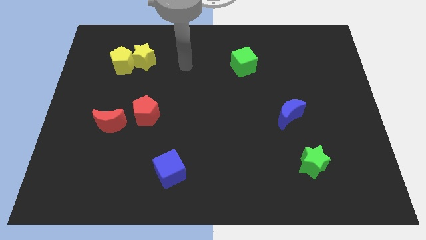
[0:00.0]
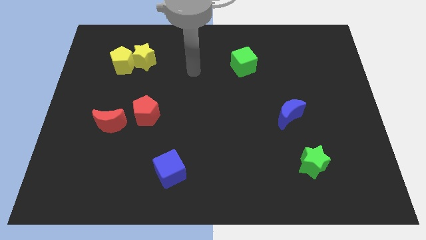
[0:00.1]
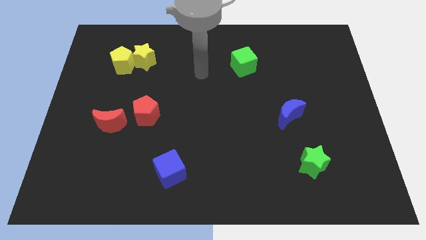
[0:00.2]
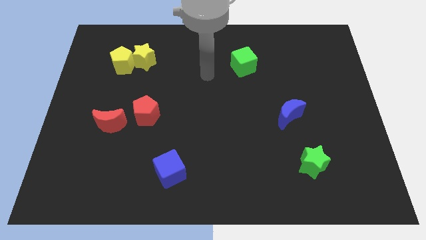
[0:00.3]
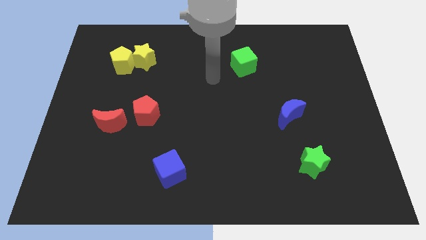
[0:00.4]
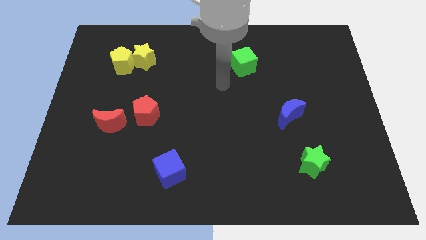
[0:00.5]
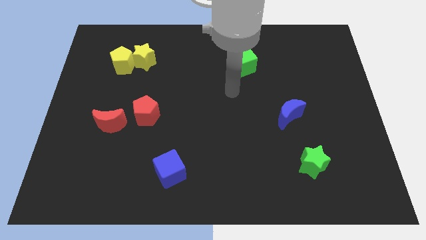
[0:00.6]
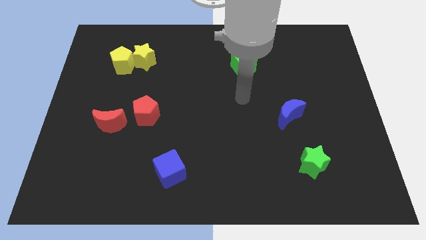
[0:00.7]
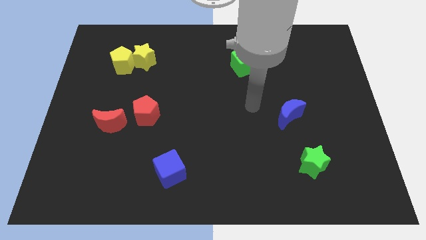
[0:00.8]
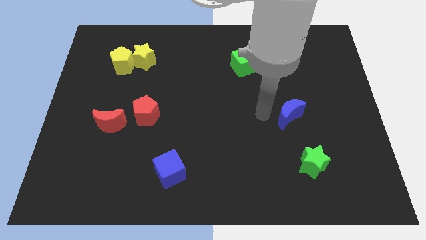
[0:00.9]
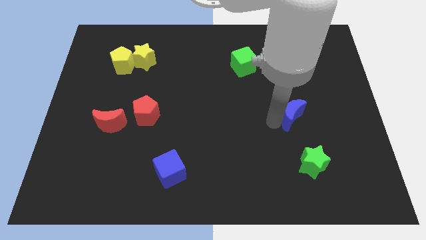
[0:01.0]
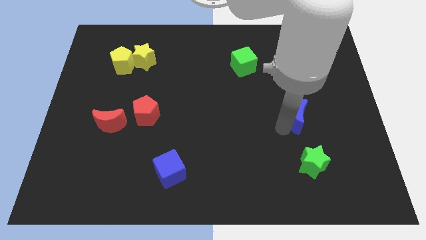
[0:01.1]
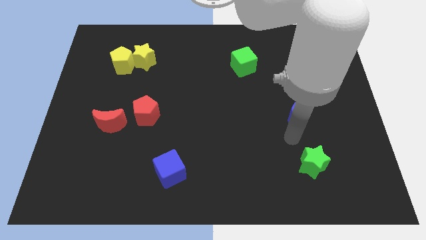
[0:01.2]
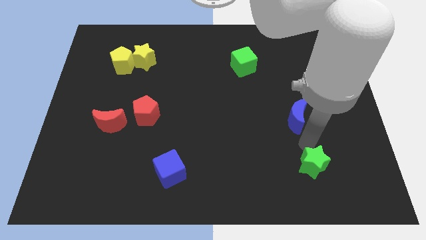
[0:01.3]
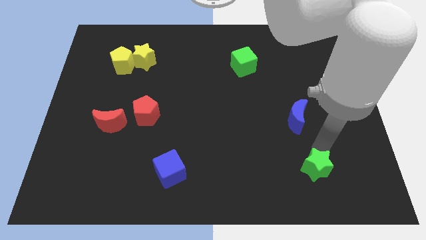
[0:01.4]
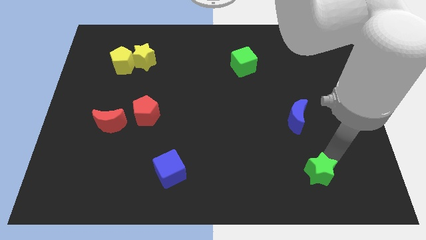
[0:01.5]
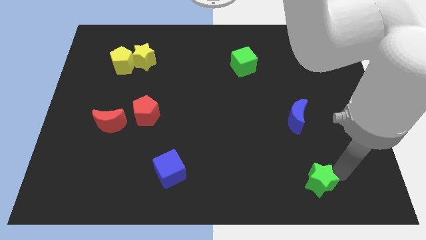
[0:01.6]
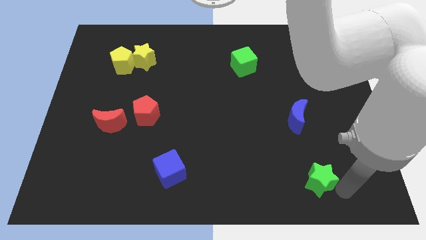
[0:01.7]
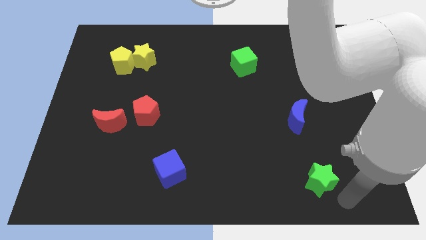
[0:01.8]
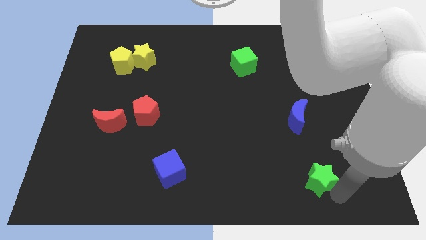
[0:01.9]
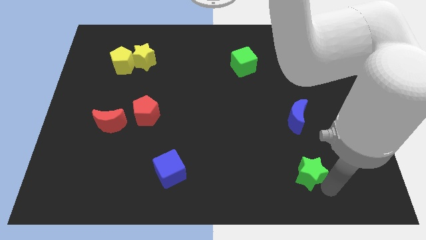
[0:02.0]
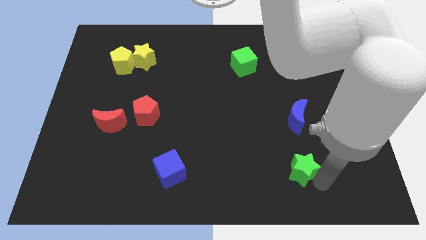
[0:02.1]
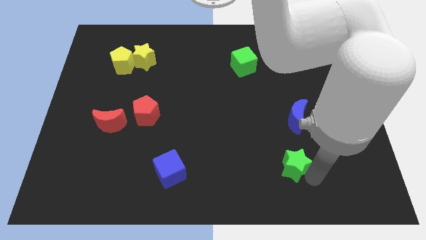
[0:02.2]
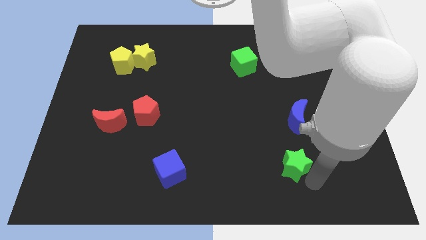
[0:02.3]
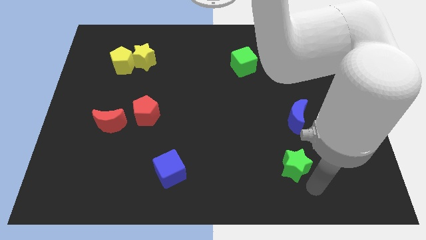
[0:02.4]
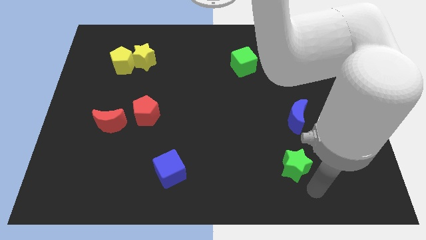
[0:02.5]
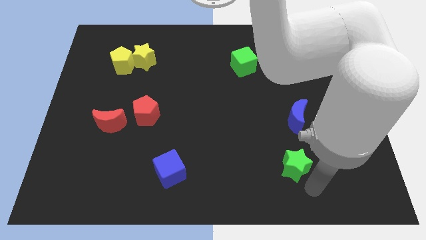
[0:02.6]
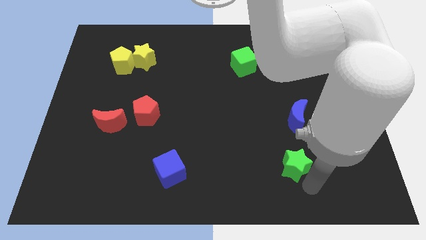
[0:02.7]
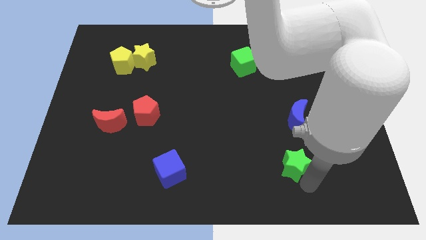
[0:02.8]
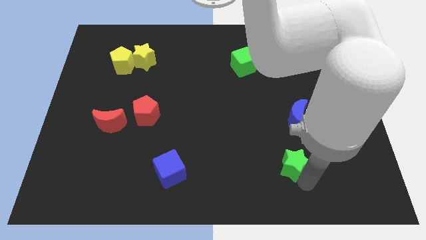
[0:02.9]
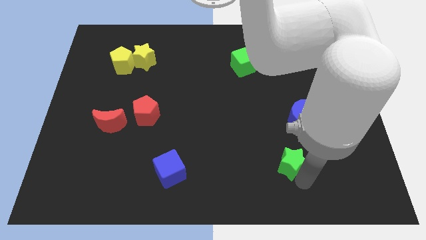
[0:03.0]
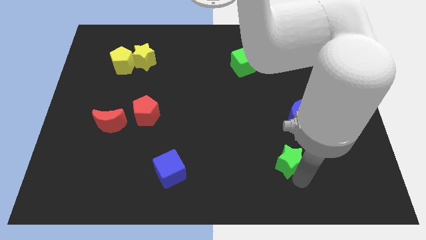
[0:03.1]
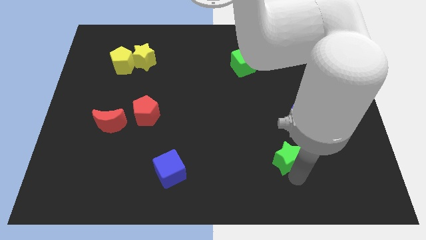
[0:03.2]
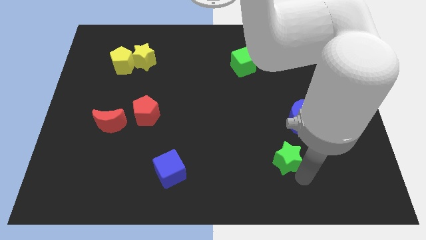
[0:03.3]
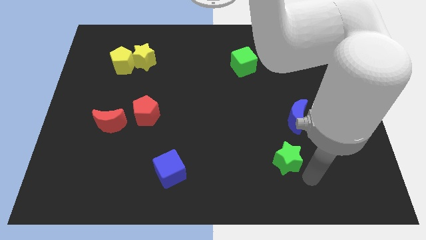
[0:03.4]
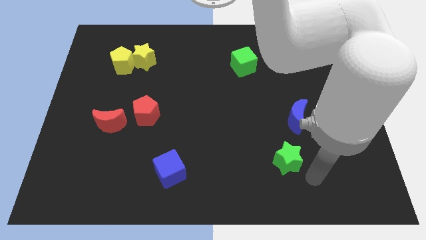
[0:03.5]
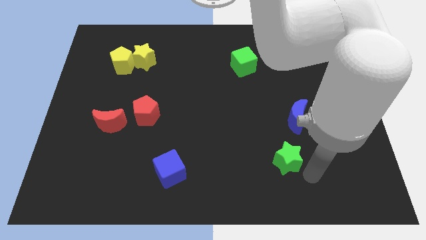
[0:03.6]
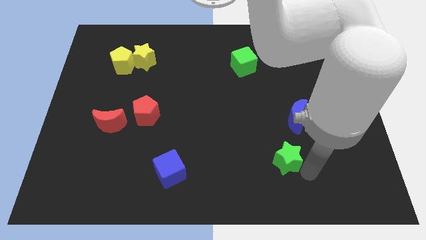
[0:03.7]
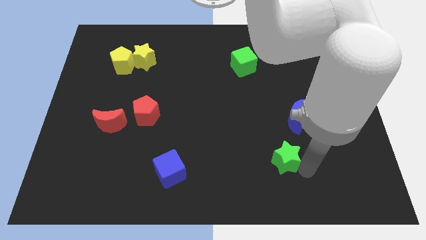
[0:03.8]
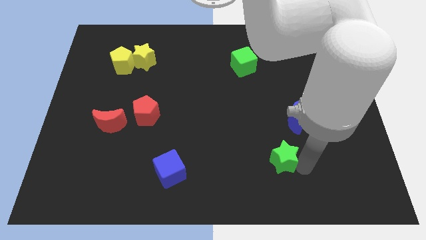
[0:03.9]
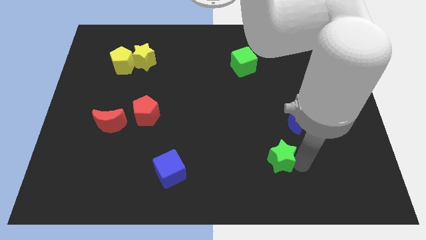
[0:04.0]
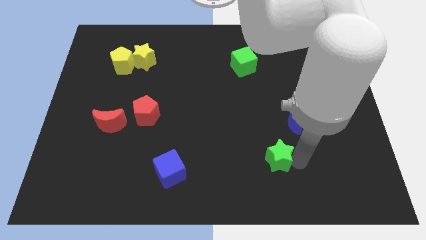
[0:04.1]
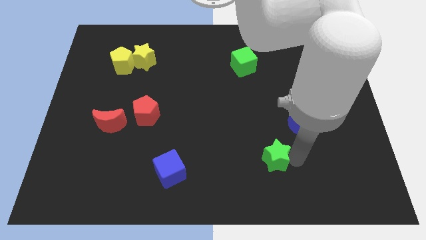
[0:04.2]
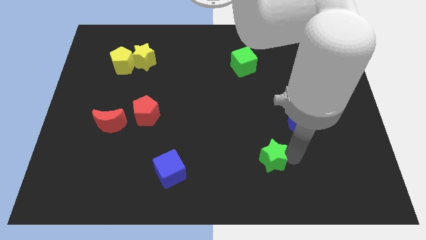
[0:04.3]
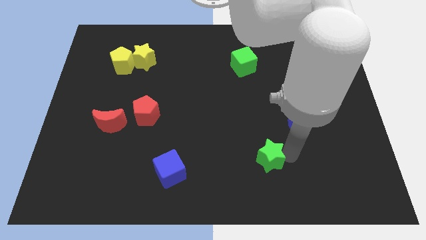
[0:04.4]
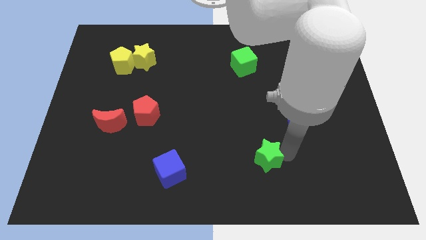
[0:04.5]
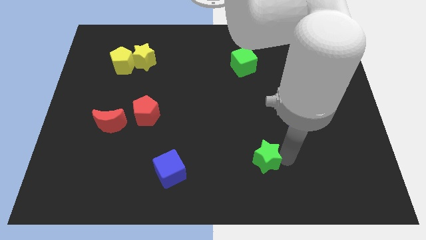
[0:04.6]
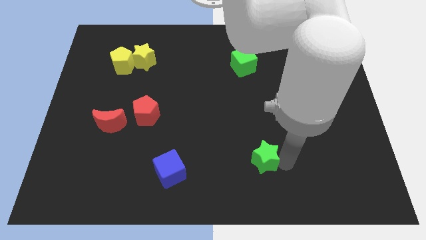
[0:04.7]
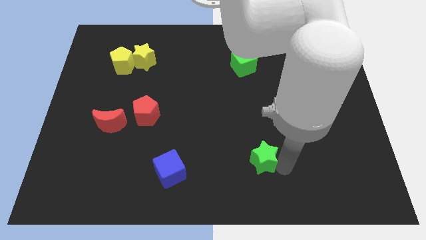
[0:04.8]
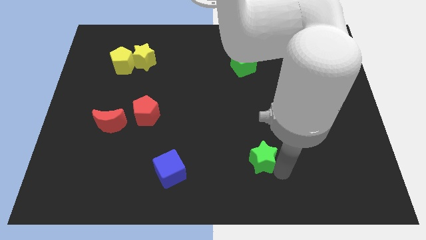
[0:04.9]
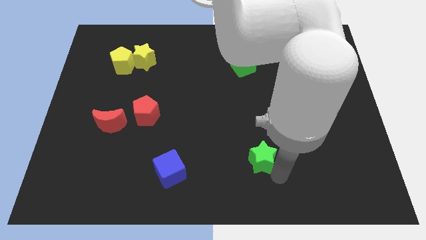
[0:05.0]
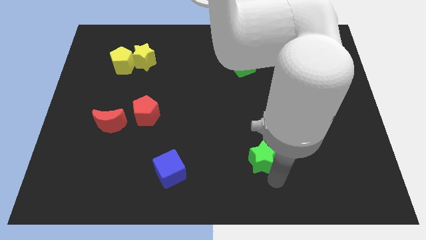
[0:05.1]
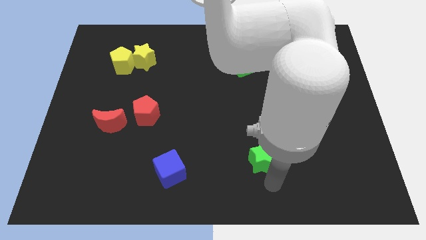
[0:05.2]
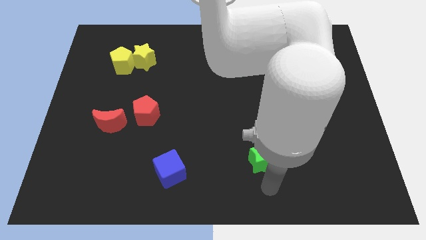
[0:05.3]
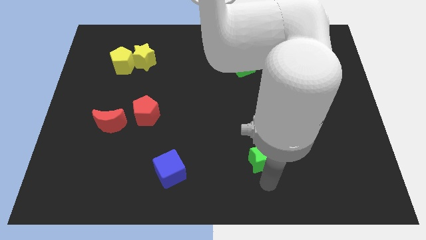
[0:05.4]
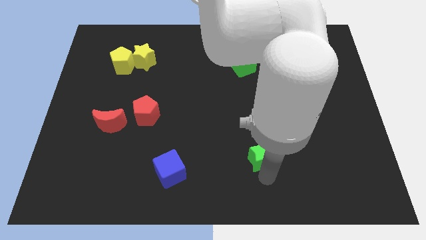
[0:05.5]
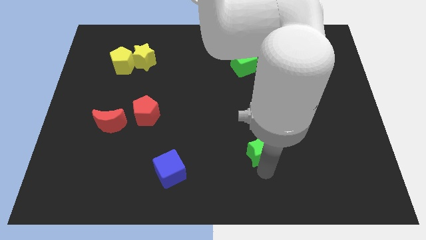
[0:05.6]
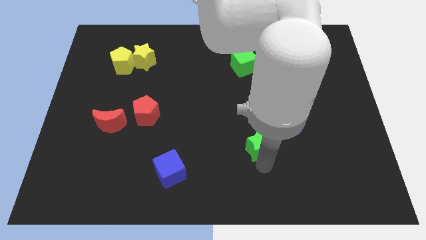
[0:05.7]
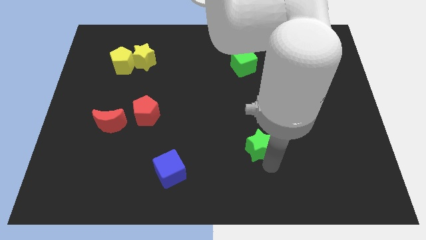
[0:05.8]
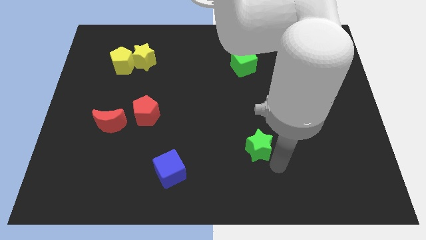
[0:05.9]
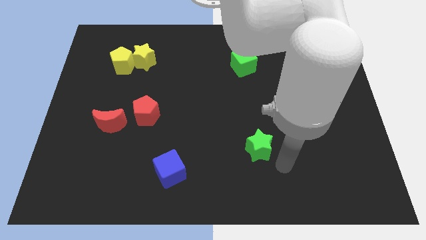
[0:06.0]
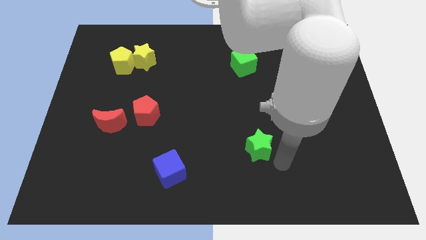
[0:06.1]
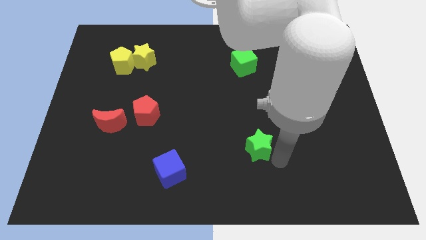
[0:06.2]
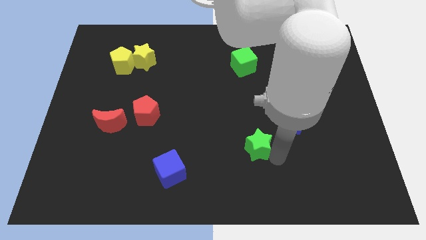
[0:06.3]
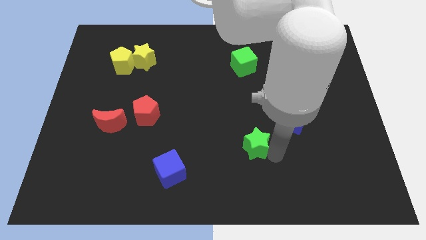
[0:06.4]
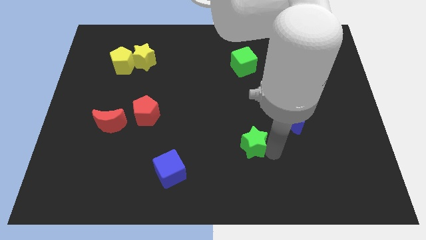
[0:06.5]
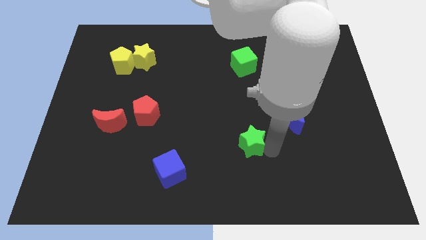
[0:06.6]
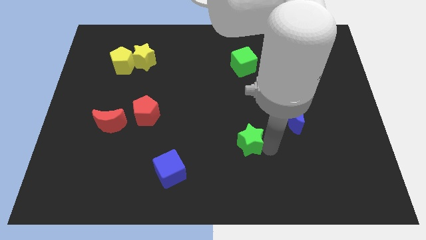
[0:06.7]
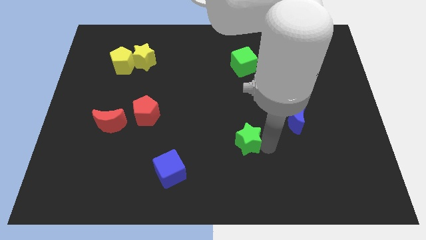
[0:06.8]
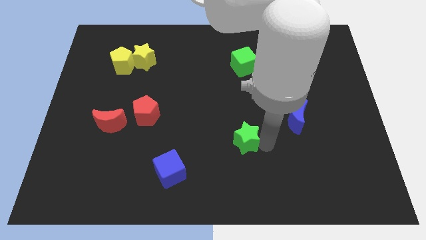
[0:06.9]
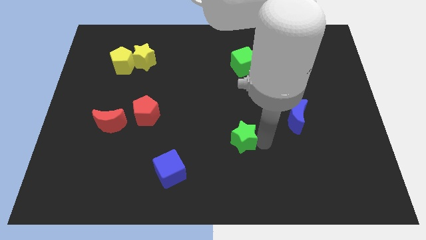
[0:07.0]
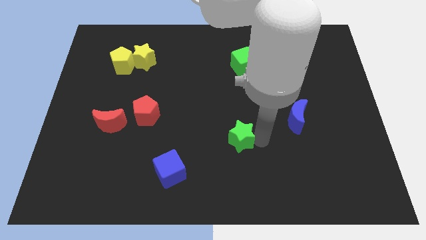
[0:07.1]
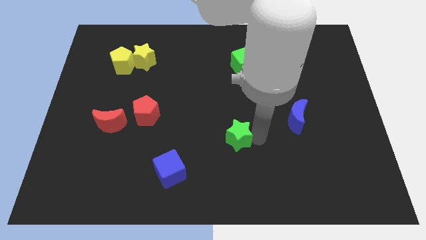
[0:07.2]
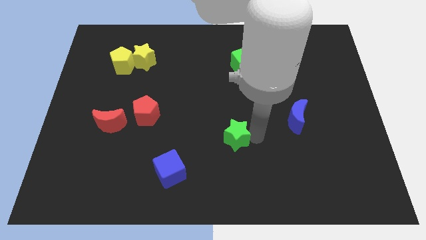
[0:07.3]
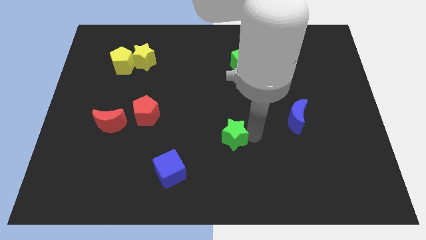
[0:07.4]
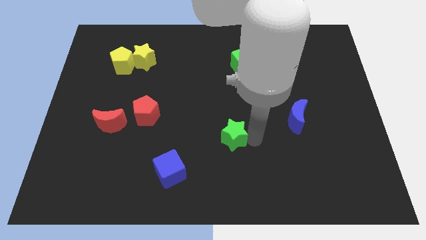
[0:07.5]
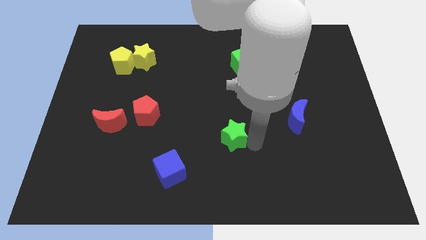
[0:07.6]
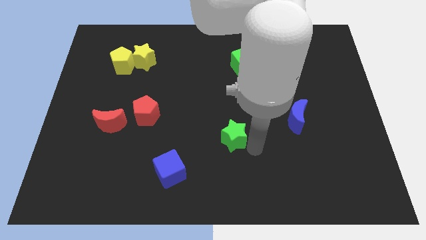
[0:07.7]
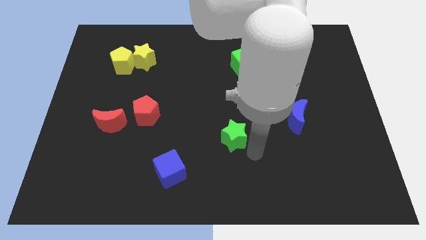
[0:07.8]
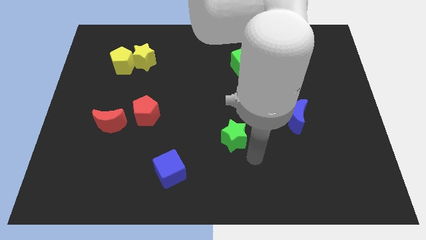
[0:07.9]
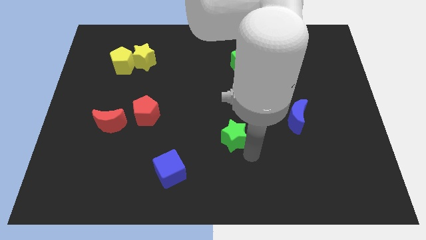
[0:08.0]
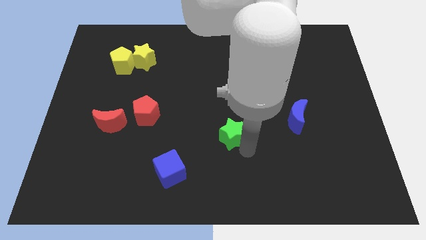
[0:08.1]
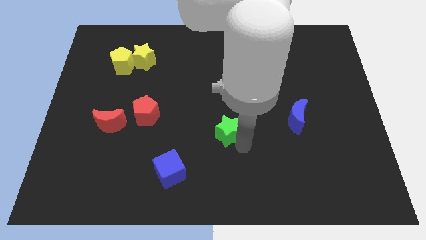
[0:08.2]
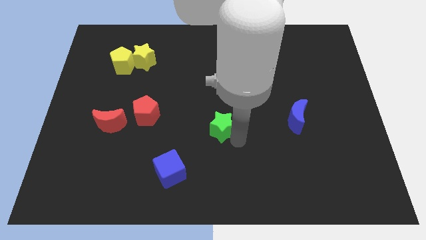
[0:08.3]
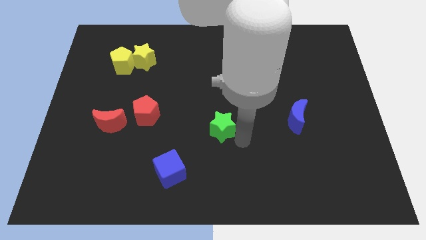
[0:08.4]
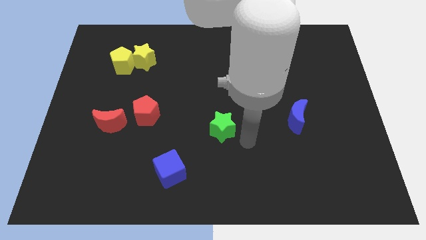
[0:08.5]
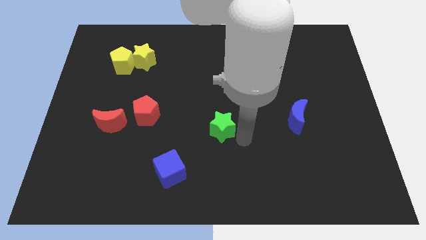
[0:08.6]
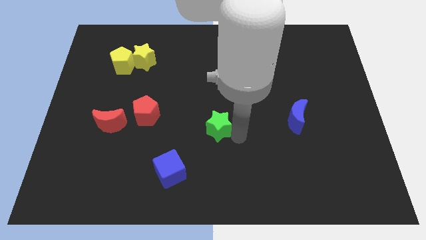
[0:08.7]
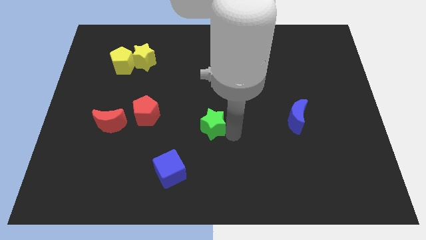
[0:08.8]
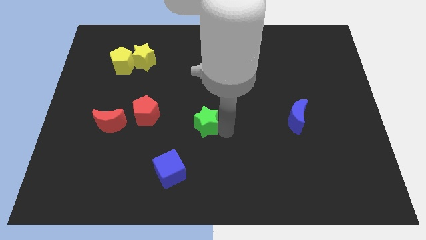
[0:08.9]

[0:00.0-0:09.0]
put the green star to the right of the red pentagon
